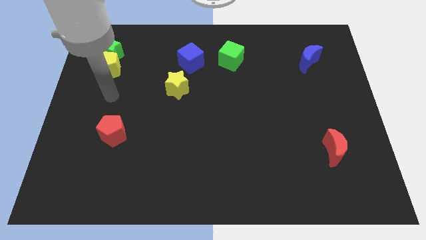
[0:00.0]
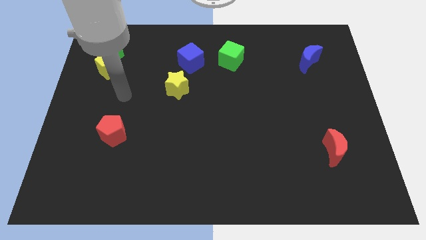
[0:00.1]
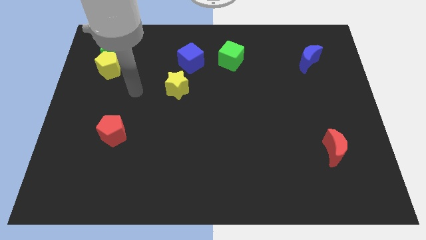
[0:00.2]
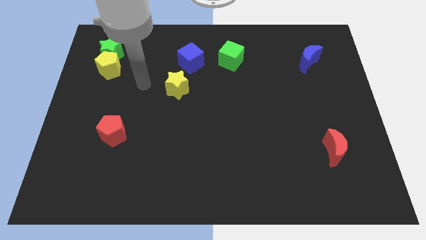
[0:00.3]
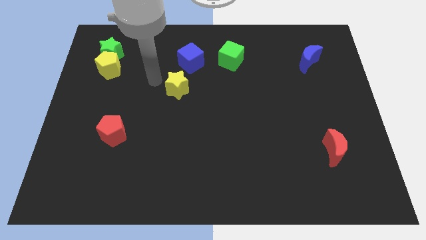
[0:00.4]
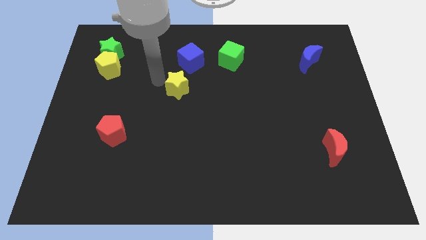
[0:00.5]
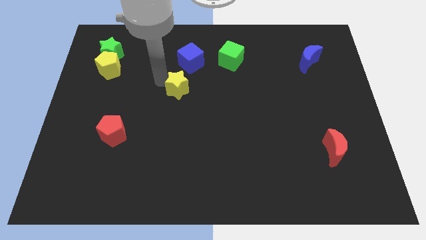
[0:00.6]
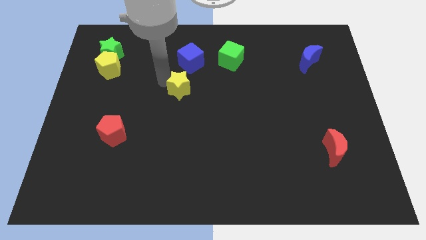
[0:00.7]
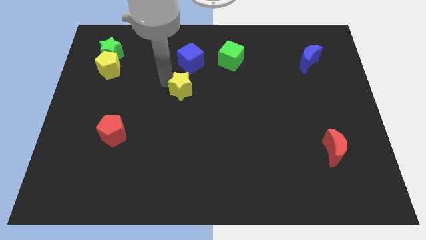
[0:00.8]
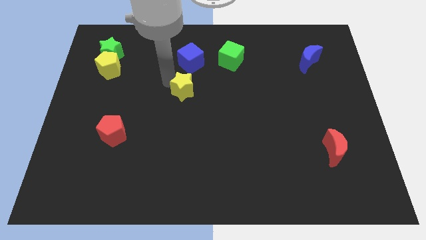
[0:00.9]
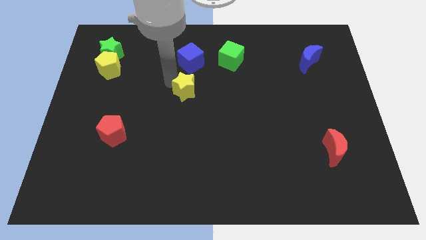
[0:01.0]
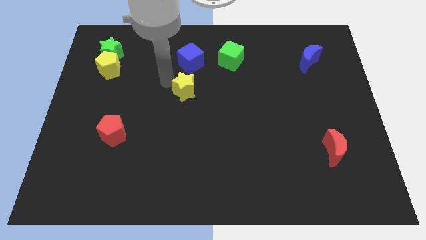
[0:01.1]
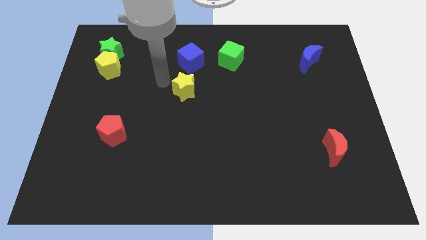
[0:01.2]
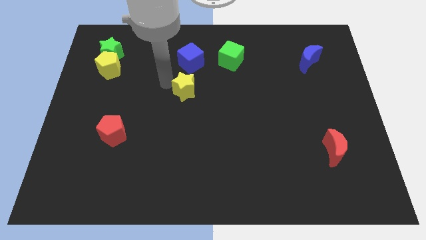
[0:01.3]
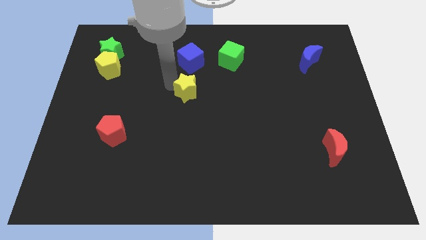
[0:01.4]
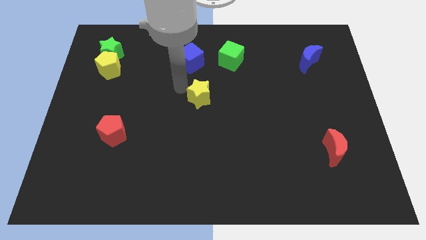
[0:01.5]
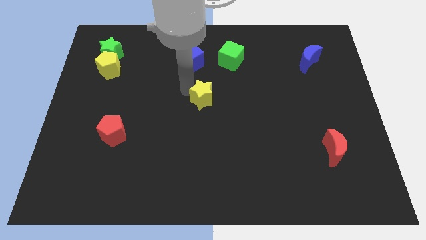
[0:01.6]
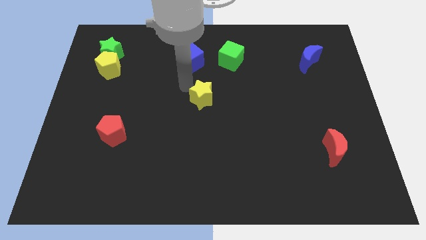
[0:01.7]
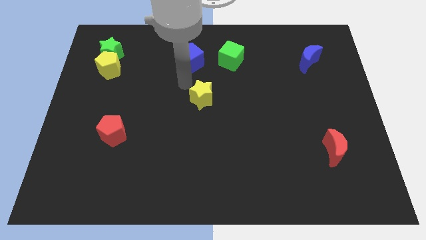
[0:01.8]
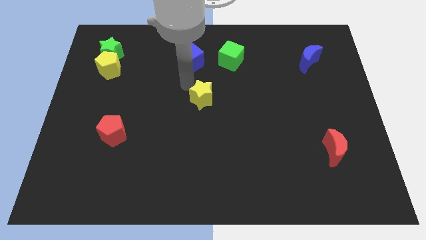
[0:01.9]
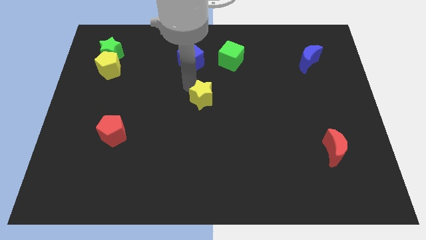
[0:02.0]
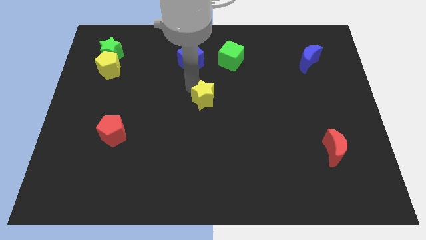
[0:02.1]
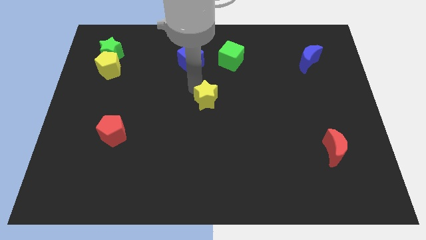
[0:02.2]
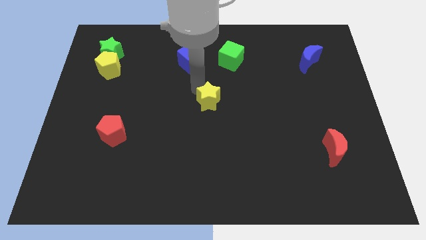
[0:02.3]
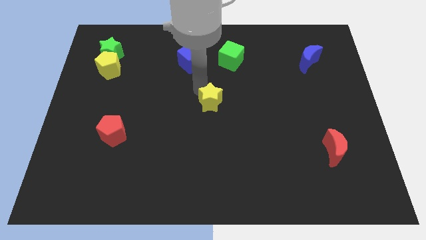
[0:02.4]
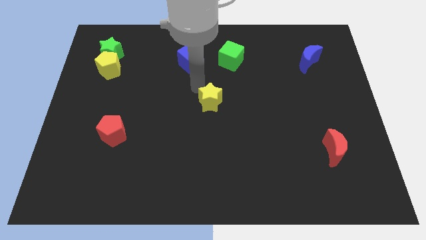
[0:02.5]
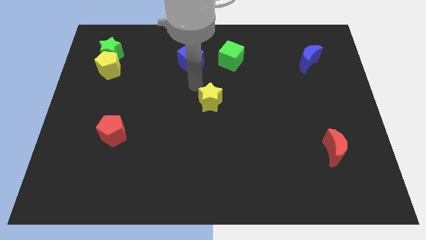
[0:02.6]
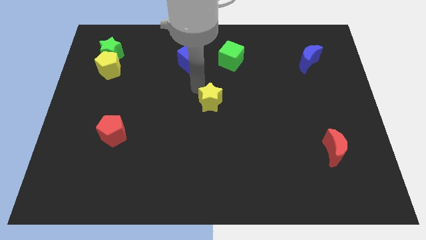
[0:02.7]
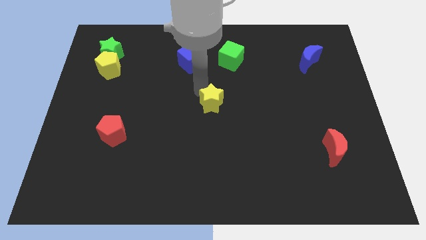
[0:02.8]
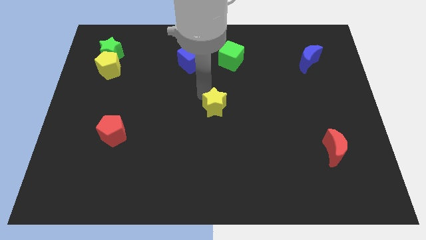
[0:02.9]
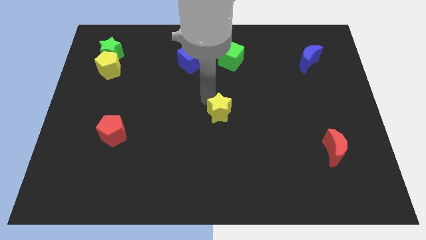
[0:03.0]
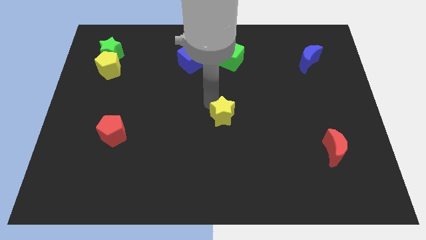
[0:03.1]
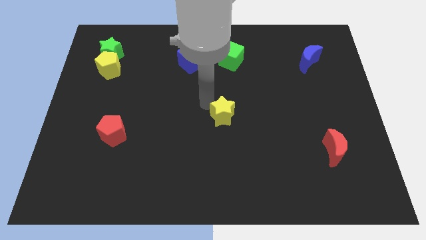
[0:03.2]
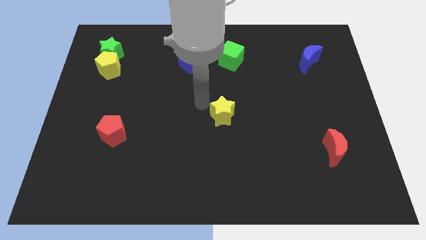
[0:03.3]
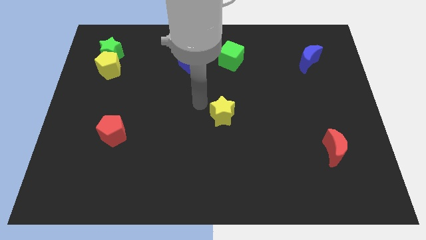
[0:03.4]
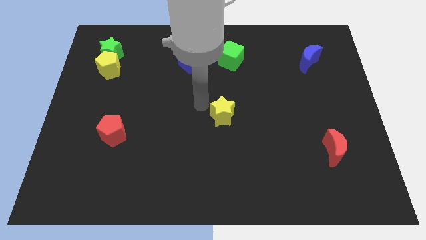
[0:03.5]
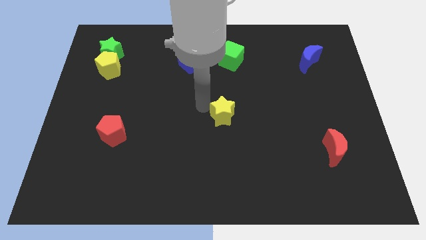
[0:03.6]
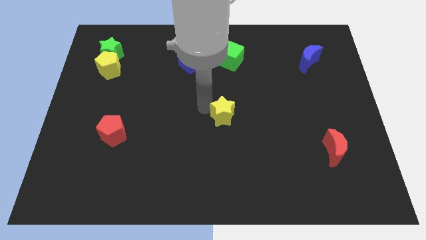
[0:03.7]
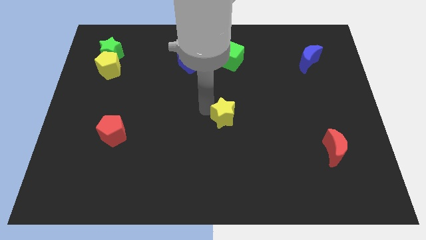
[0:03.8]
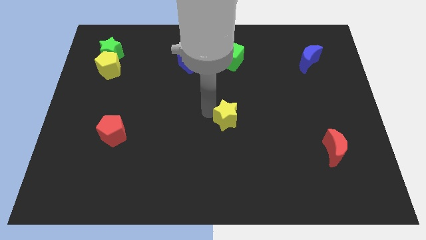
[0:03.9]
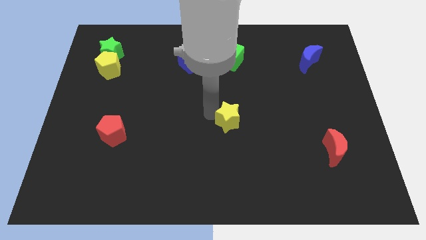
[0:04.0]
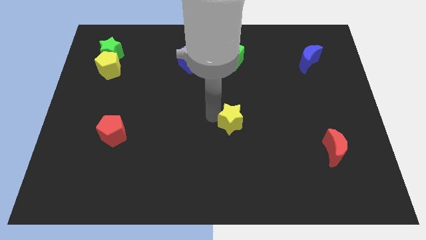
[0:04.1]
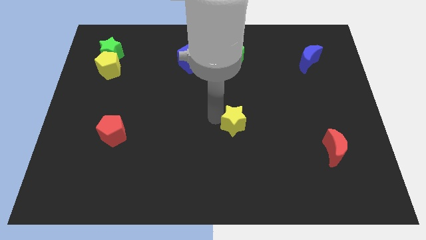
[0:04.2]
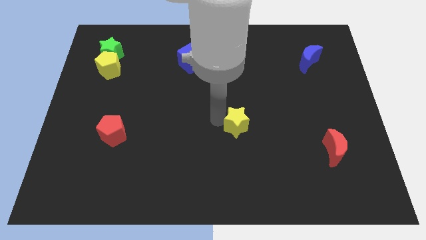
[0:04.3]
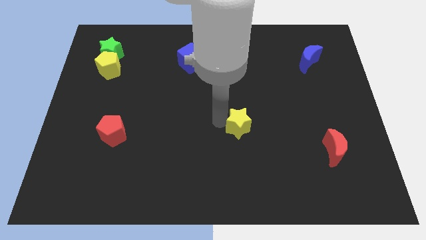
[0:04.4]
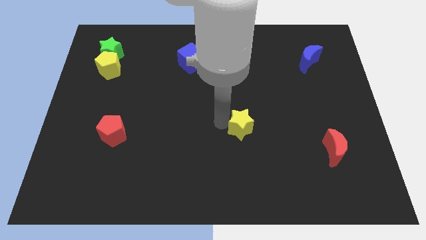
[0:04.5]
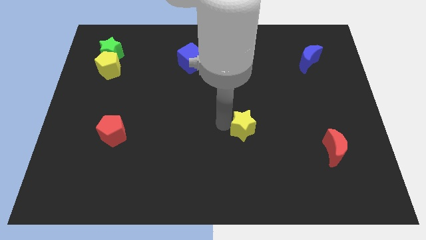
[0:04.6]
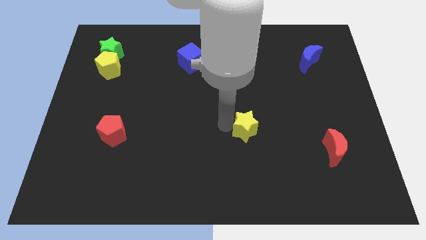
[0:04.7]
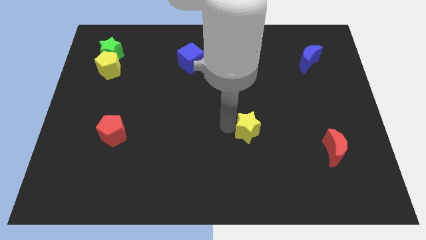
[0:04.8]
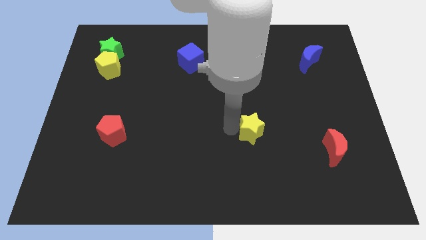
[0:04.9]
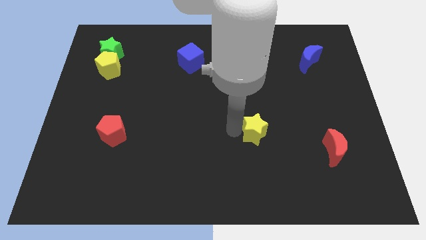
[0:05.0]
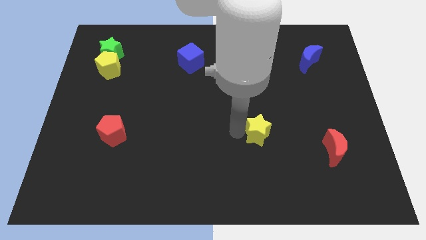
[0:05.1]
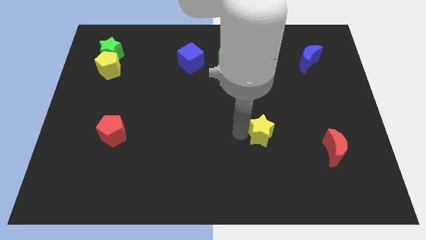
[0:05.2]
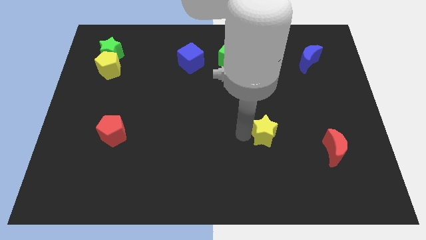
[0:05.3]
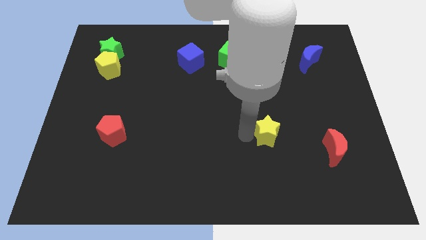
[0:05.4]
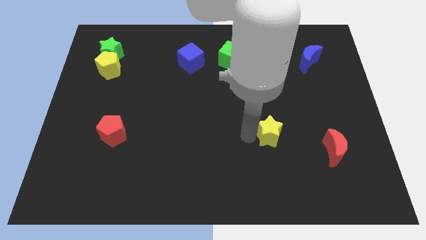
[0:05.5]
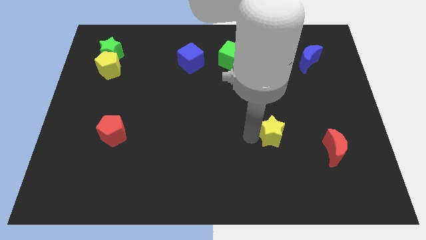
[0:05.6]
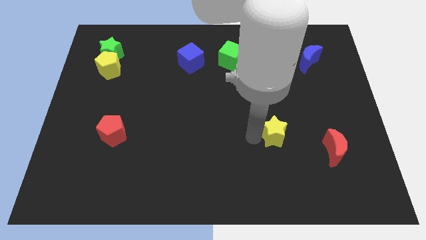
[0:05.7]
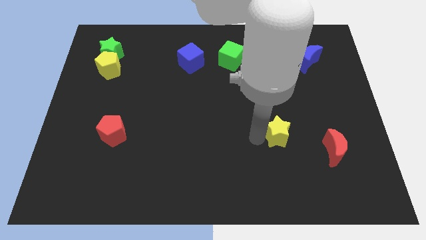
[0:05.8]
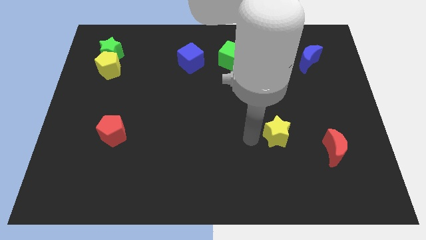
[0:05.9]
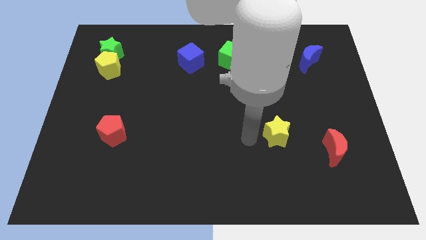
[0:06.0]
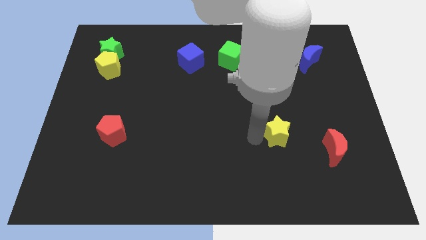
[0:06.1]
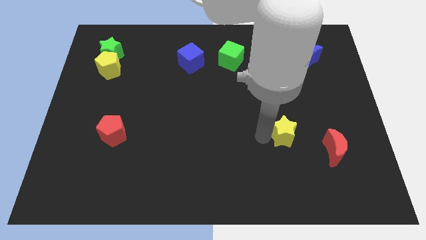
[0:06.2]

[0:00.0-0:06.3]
slide the yellow star diagonally up and to the left of the red moon

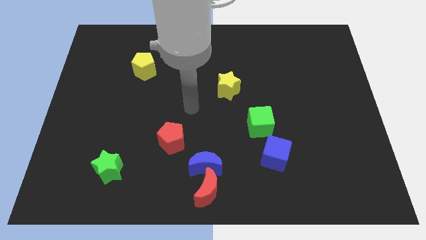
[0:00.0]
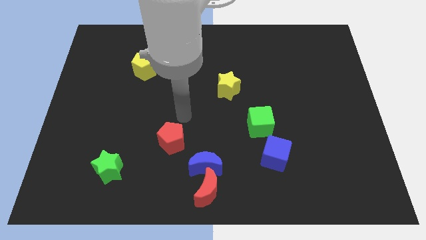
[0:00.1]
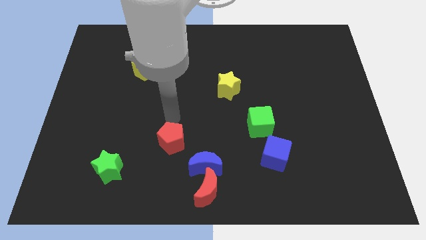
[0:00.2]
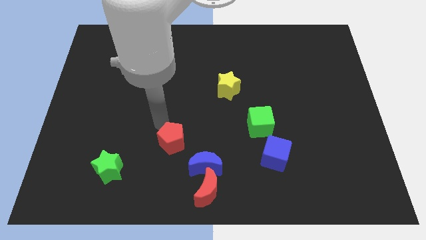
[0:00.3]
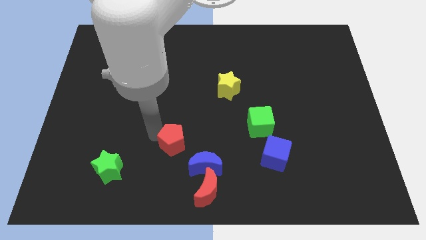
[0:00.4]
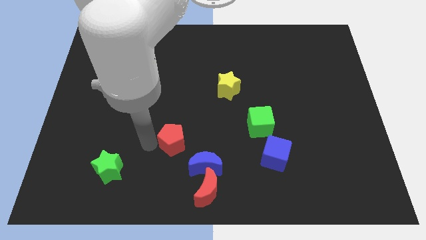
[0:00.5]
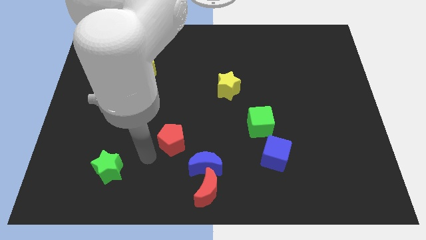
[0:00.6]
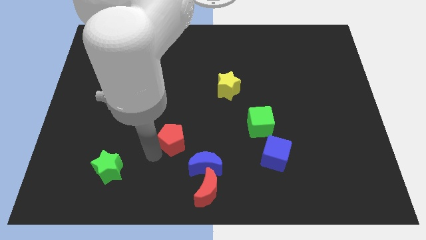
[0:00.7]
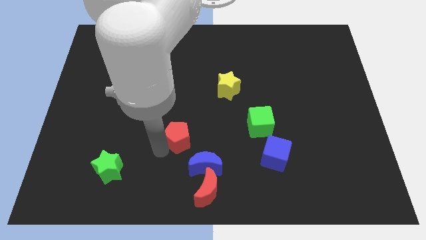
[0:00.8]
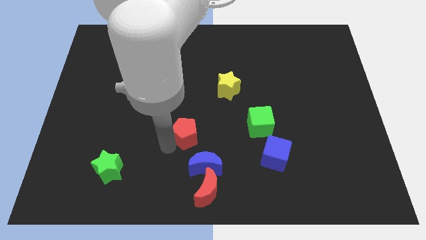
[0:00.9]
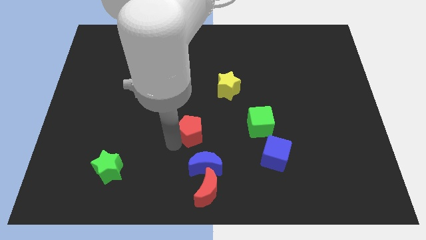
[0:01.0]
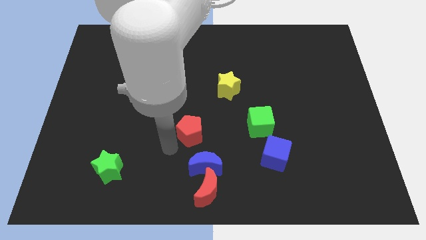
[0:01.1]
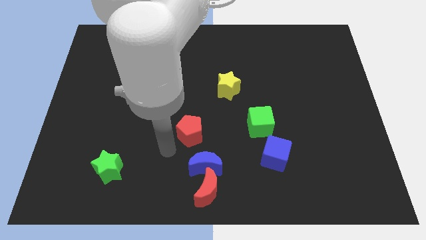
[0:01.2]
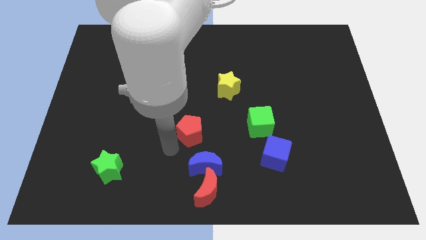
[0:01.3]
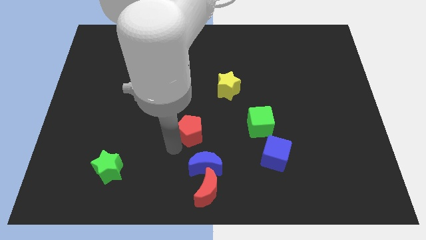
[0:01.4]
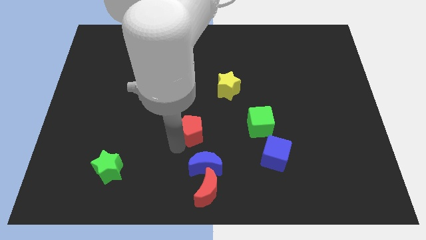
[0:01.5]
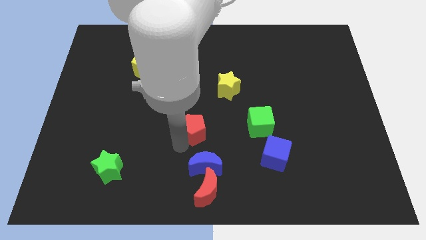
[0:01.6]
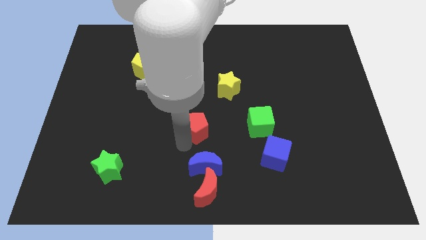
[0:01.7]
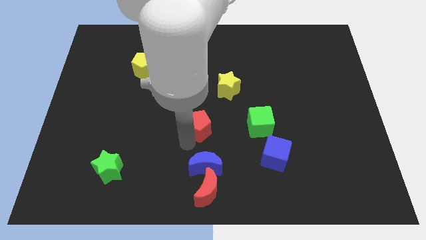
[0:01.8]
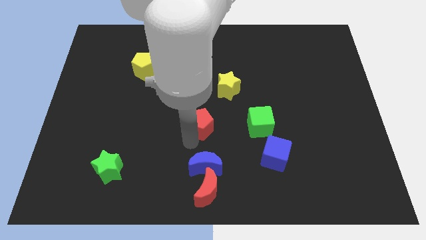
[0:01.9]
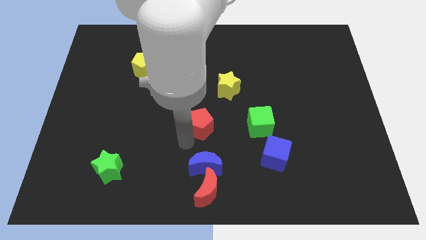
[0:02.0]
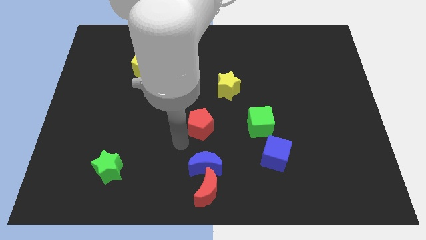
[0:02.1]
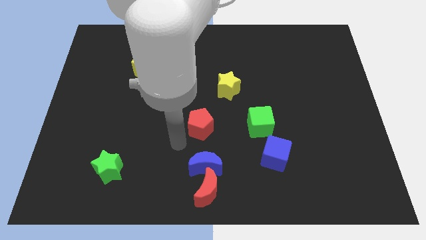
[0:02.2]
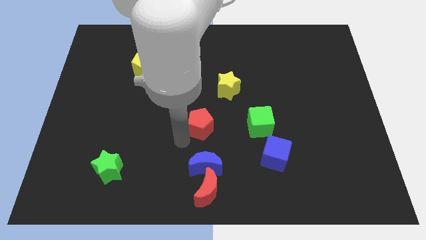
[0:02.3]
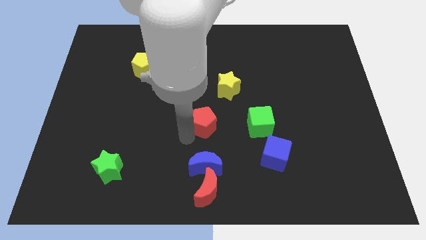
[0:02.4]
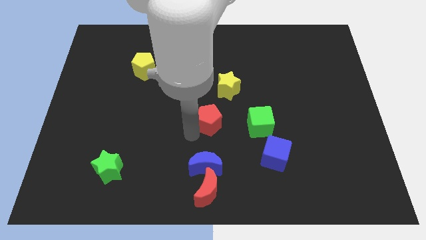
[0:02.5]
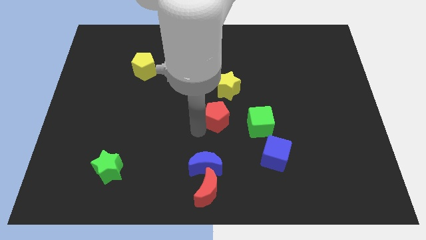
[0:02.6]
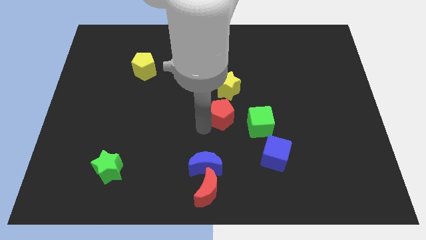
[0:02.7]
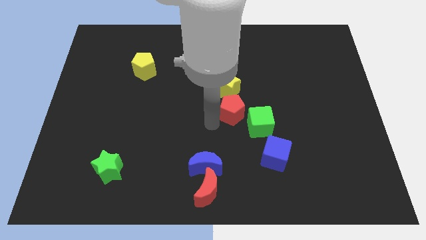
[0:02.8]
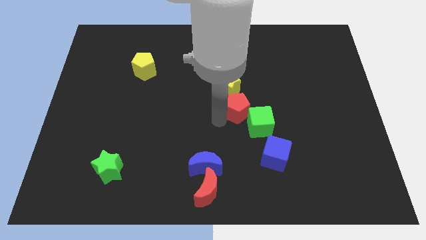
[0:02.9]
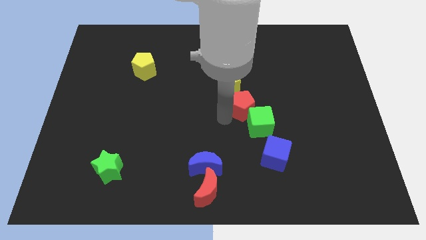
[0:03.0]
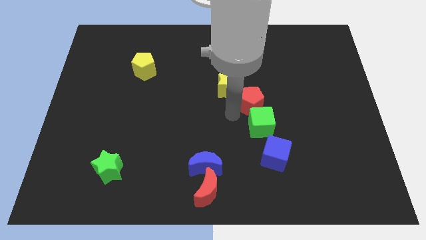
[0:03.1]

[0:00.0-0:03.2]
push the red pentagon to the right of the yellow star
